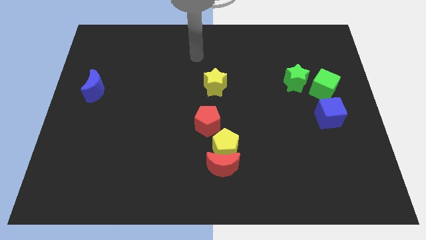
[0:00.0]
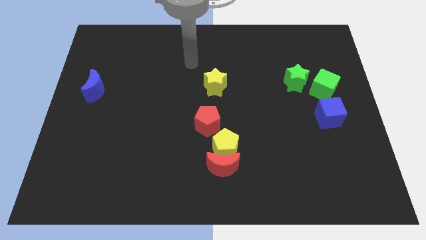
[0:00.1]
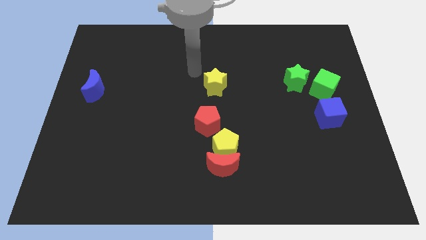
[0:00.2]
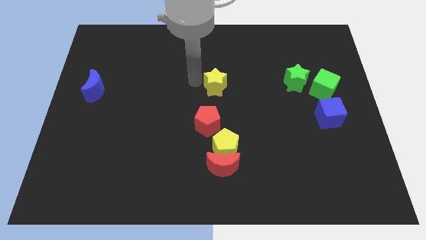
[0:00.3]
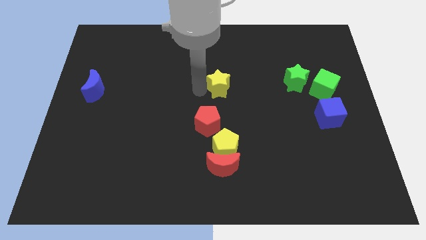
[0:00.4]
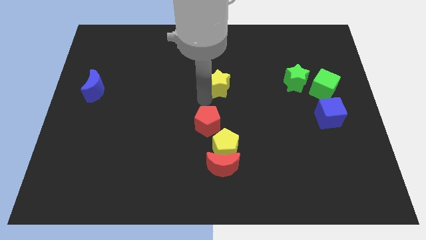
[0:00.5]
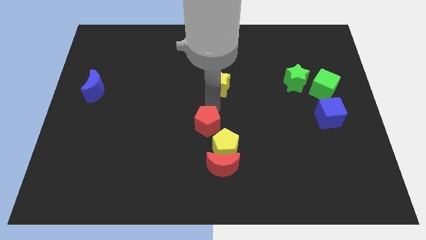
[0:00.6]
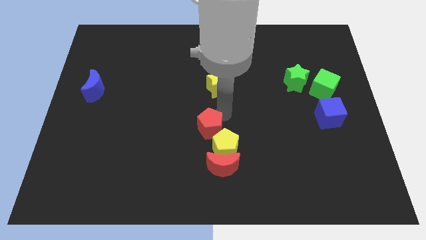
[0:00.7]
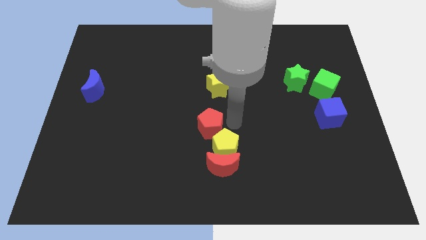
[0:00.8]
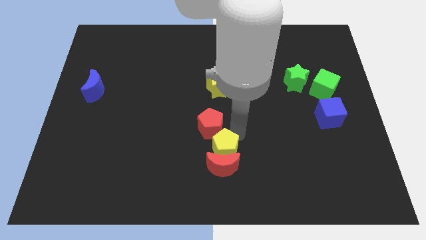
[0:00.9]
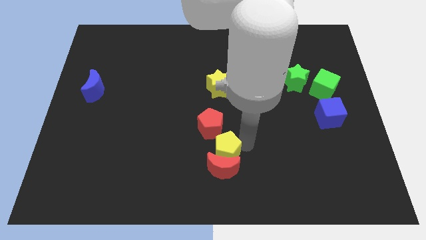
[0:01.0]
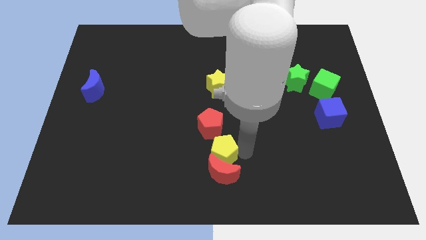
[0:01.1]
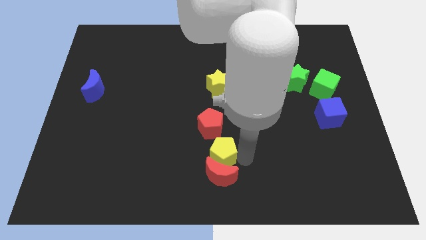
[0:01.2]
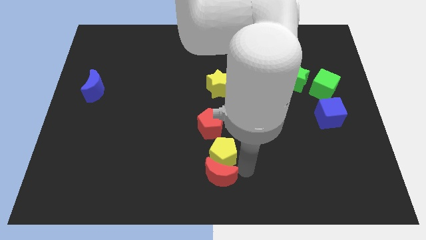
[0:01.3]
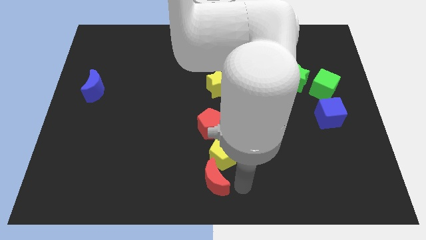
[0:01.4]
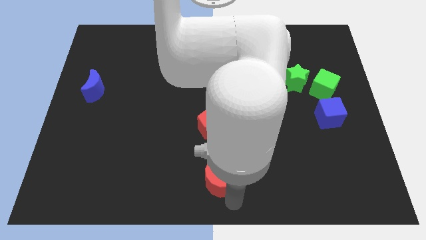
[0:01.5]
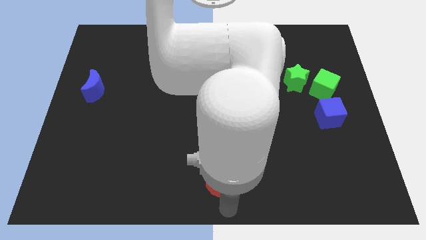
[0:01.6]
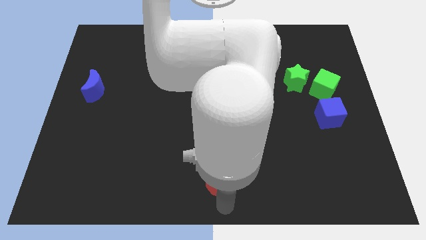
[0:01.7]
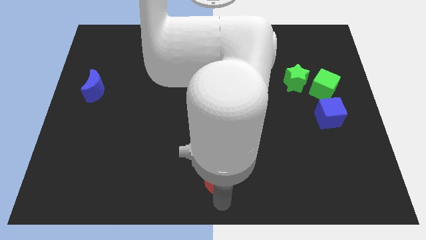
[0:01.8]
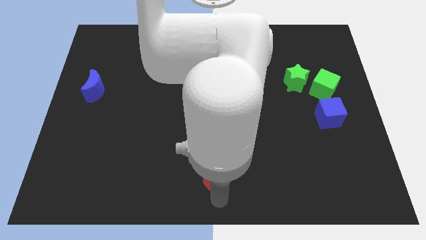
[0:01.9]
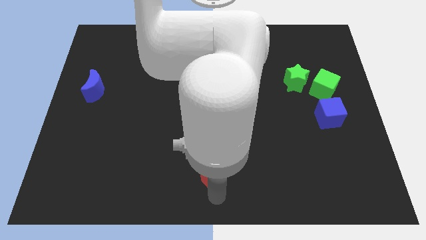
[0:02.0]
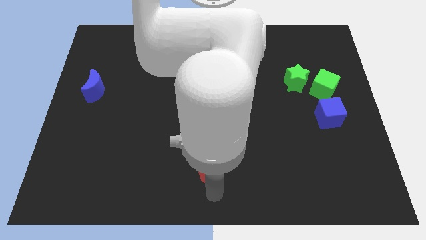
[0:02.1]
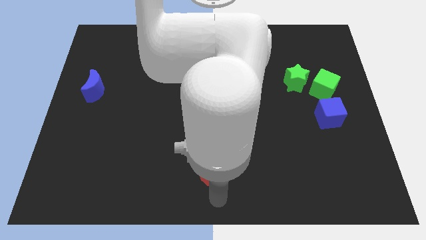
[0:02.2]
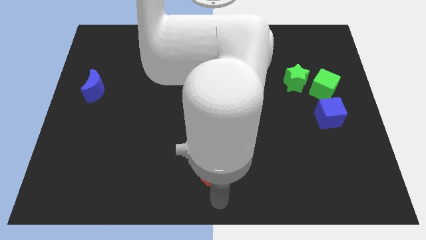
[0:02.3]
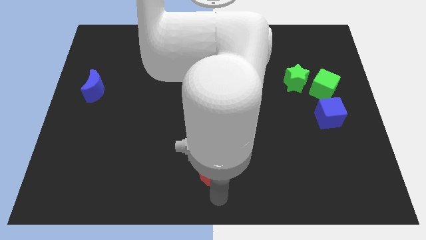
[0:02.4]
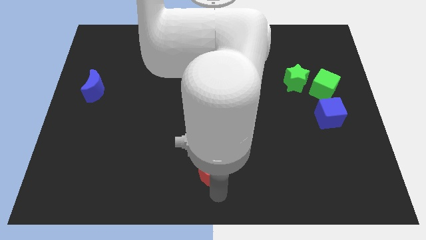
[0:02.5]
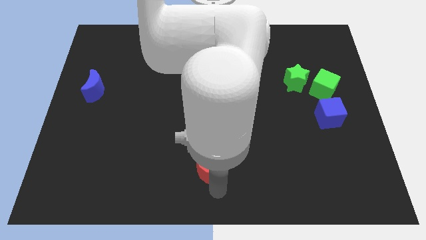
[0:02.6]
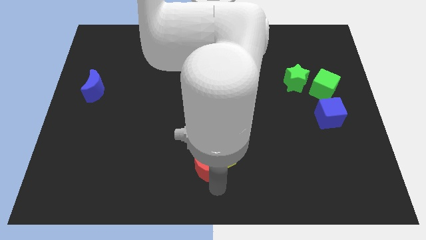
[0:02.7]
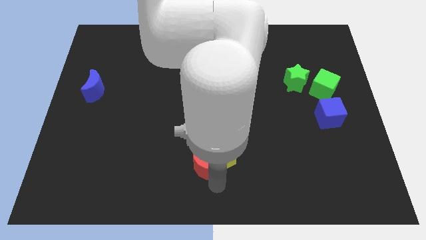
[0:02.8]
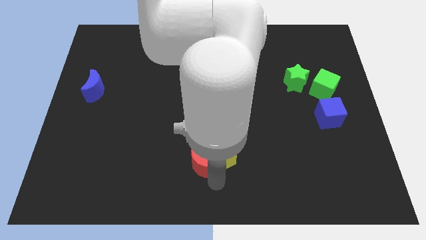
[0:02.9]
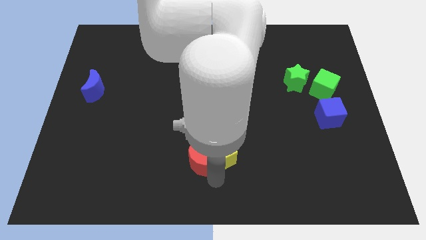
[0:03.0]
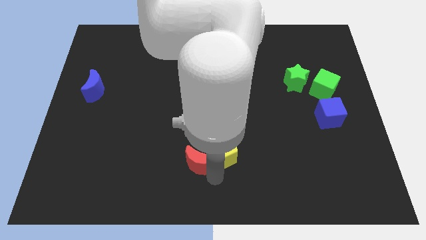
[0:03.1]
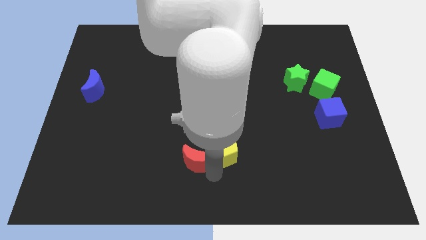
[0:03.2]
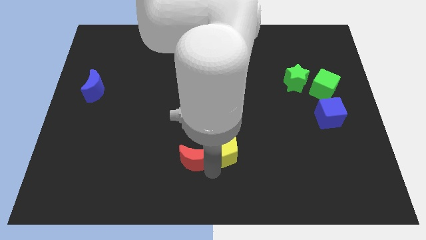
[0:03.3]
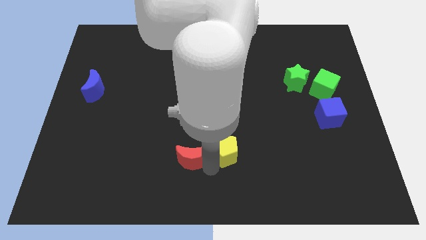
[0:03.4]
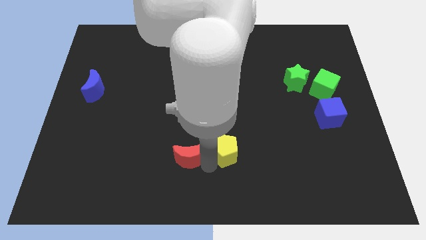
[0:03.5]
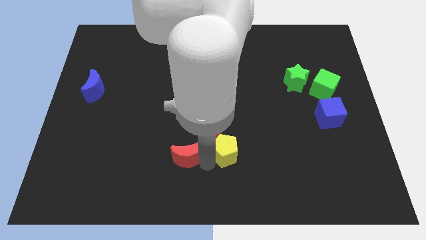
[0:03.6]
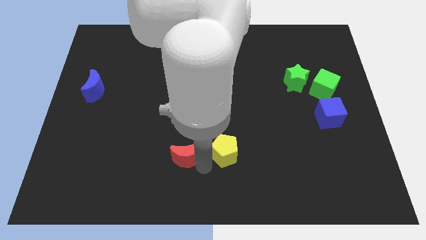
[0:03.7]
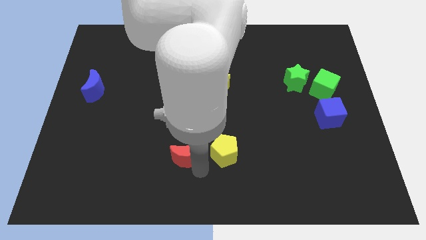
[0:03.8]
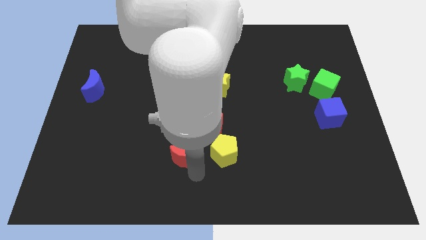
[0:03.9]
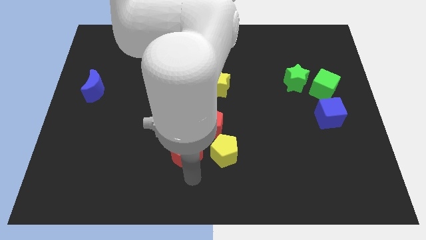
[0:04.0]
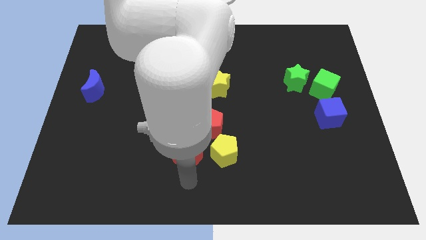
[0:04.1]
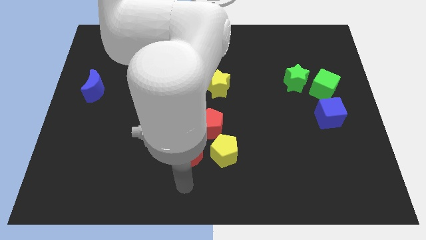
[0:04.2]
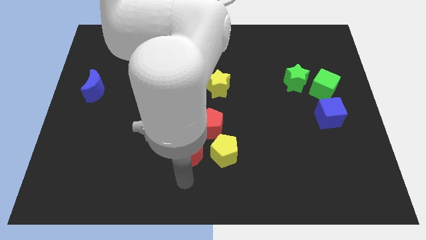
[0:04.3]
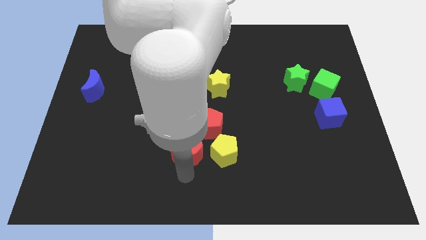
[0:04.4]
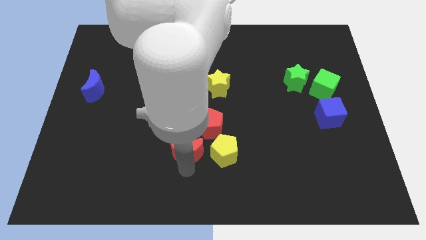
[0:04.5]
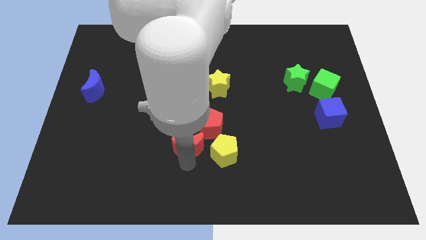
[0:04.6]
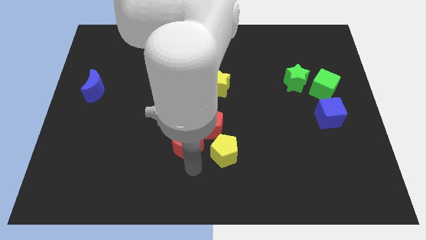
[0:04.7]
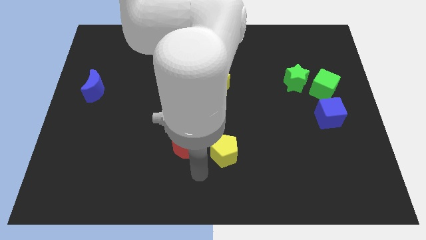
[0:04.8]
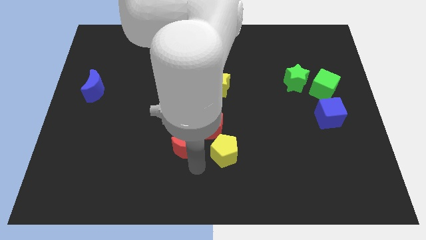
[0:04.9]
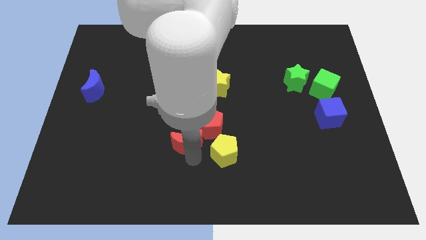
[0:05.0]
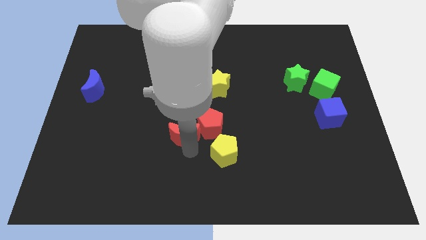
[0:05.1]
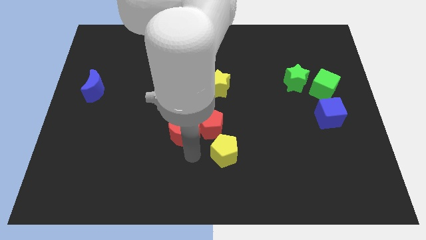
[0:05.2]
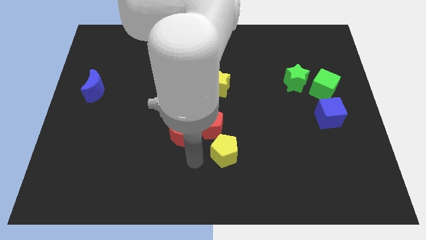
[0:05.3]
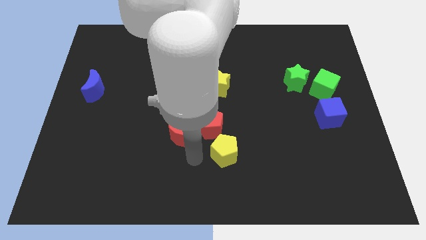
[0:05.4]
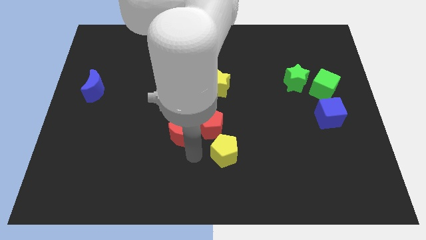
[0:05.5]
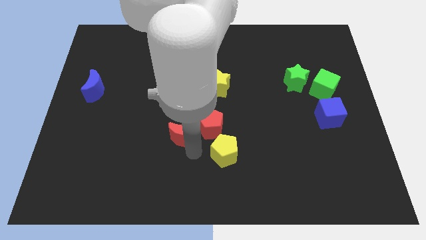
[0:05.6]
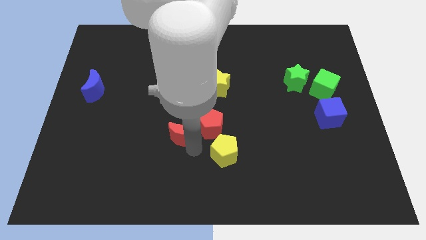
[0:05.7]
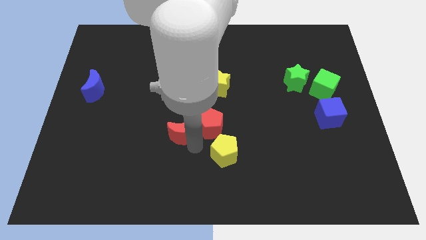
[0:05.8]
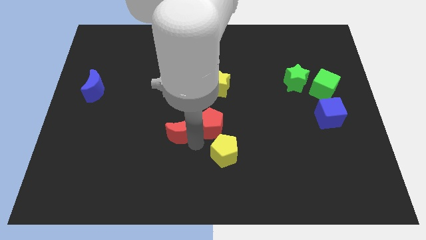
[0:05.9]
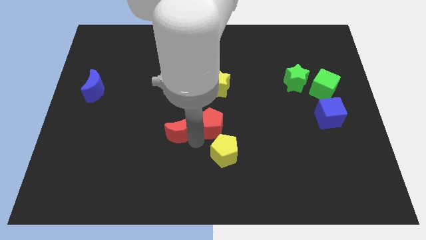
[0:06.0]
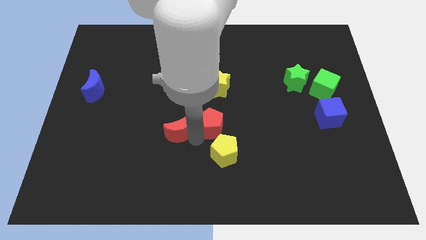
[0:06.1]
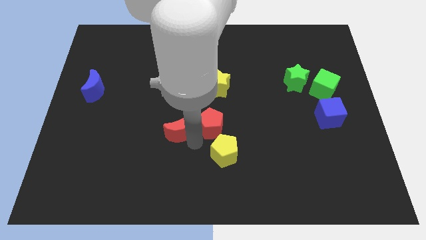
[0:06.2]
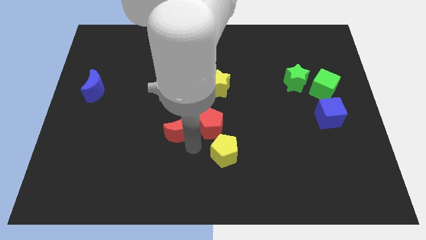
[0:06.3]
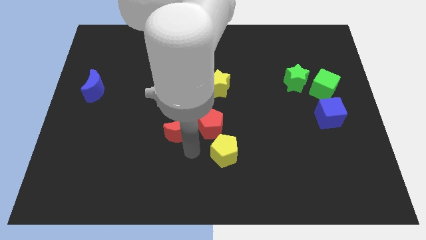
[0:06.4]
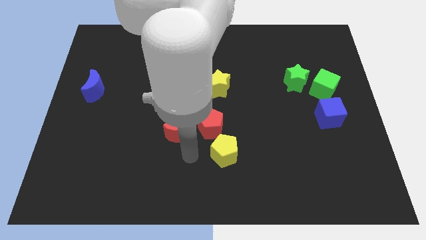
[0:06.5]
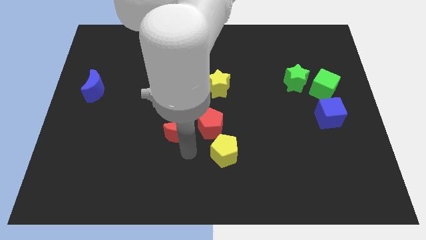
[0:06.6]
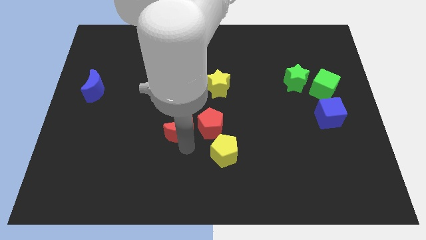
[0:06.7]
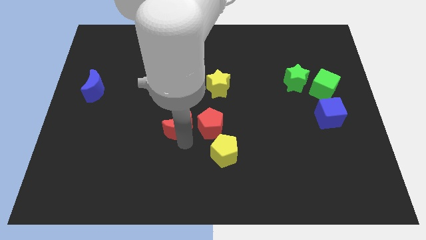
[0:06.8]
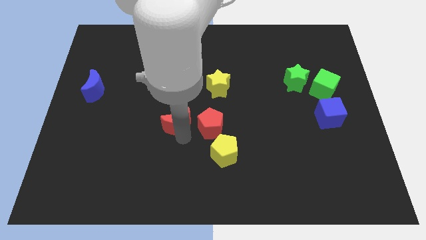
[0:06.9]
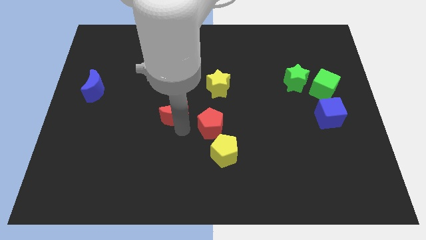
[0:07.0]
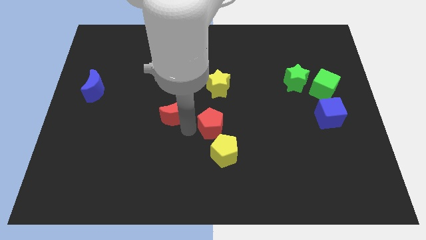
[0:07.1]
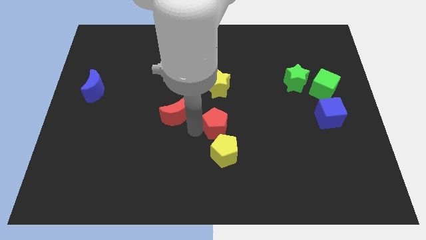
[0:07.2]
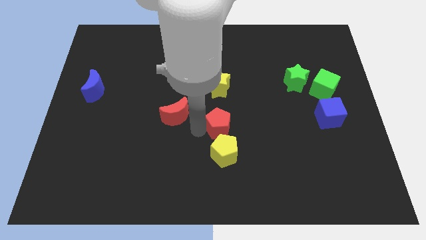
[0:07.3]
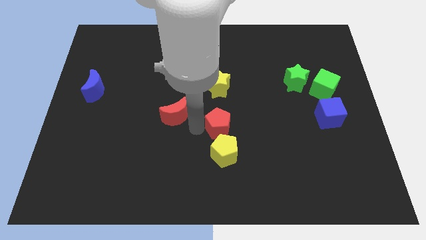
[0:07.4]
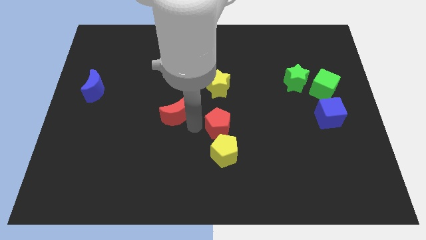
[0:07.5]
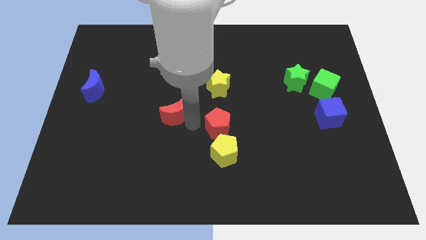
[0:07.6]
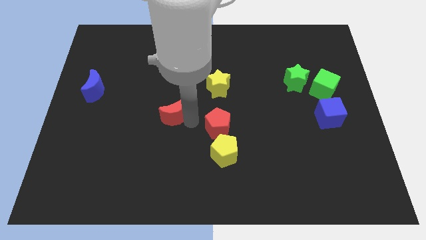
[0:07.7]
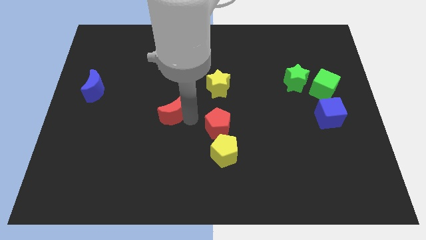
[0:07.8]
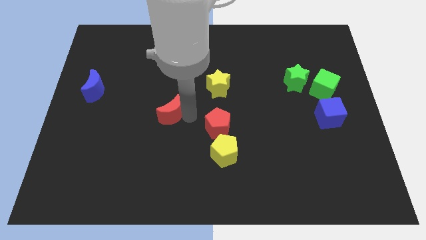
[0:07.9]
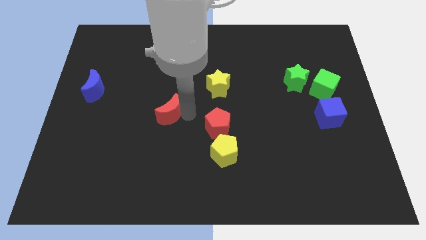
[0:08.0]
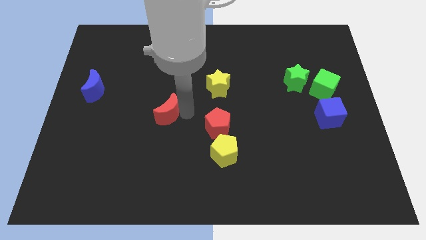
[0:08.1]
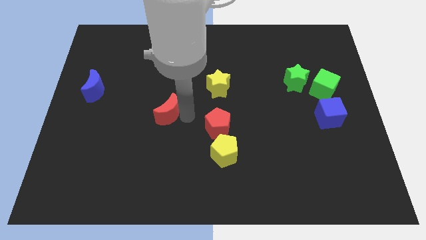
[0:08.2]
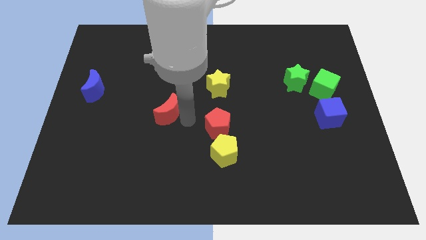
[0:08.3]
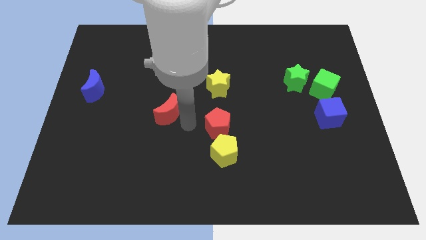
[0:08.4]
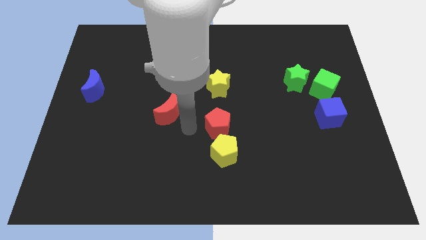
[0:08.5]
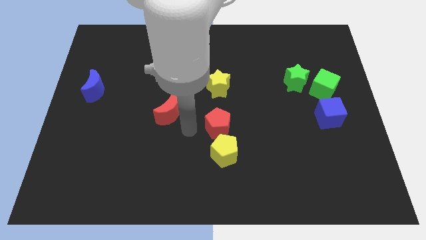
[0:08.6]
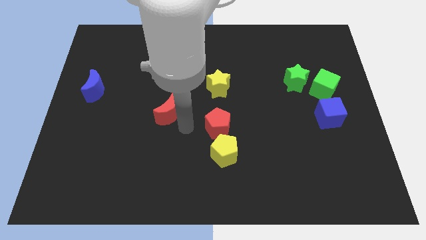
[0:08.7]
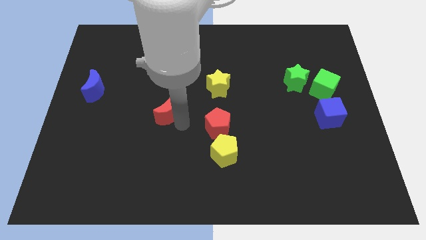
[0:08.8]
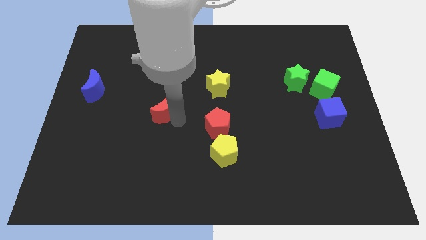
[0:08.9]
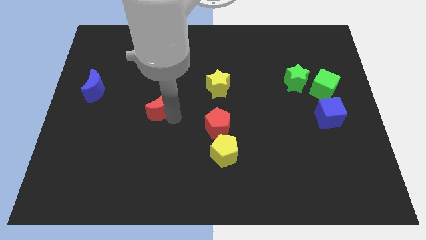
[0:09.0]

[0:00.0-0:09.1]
move the red moon diagonally up and left
